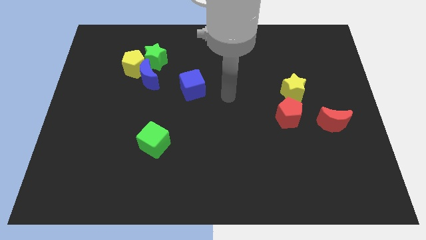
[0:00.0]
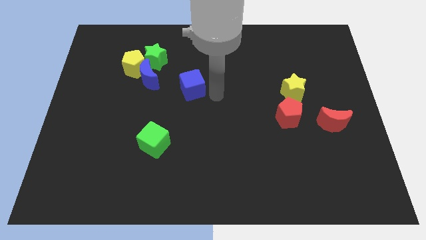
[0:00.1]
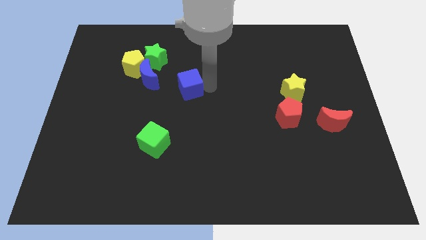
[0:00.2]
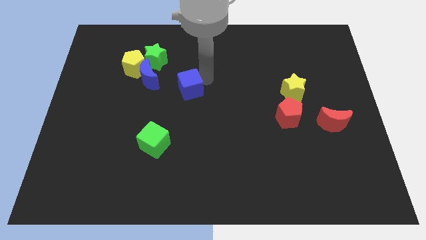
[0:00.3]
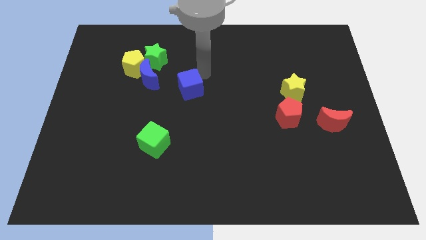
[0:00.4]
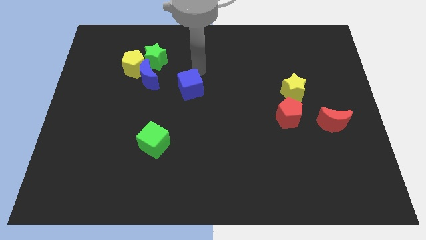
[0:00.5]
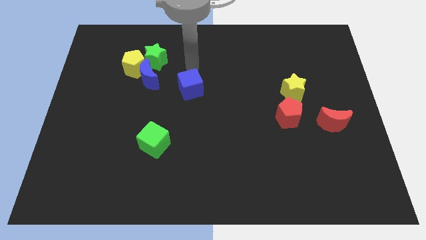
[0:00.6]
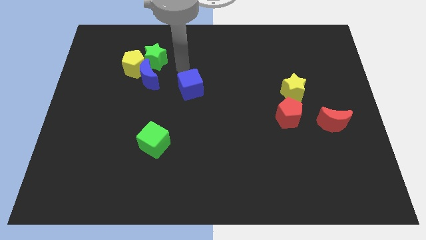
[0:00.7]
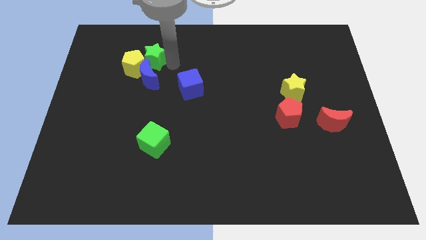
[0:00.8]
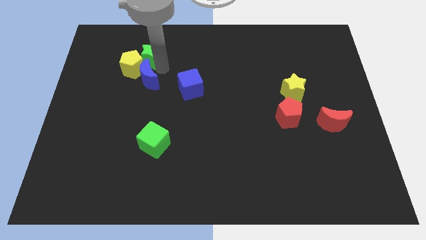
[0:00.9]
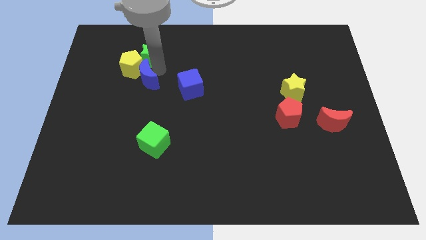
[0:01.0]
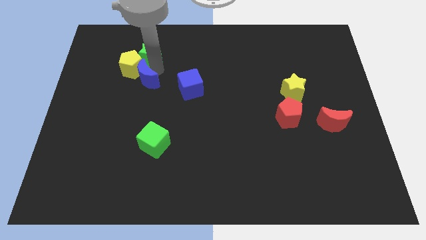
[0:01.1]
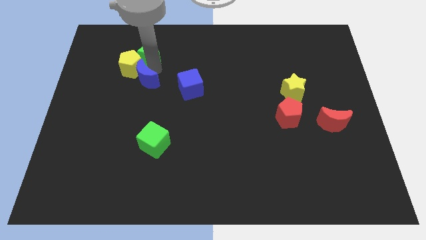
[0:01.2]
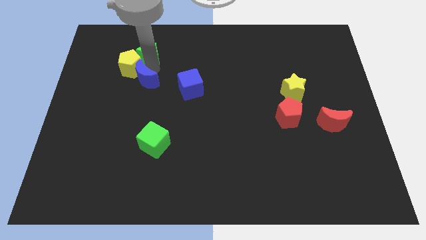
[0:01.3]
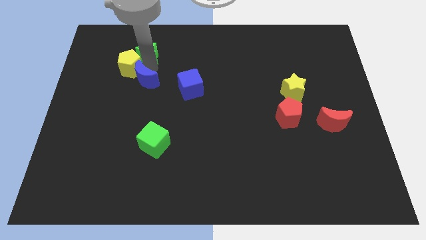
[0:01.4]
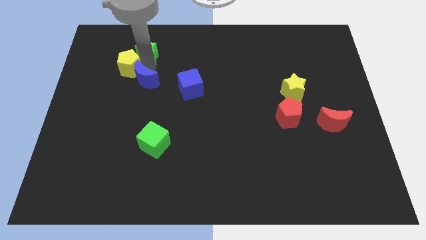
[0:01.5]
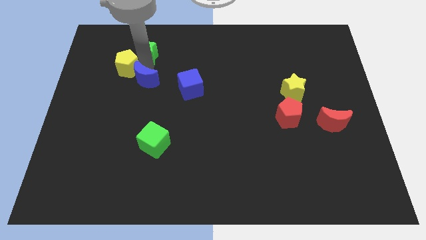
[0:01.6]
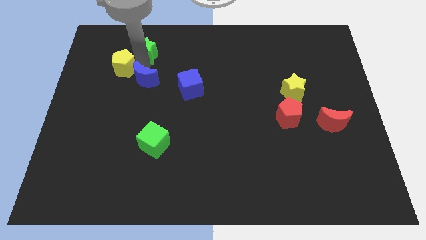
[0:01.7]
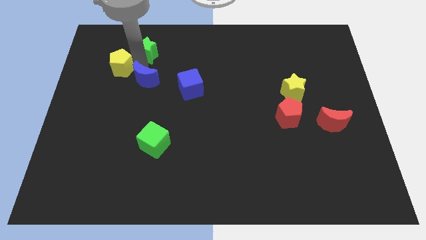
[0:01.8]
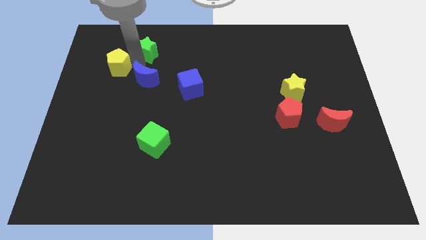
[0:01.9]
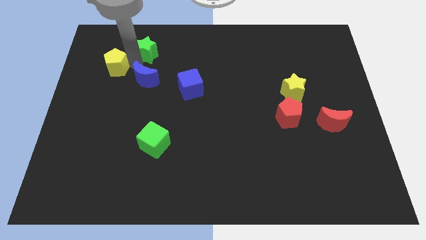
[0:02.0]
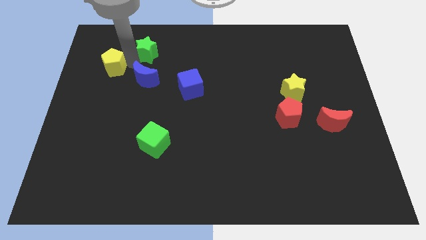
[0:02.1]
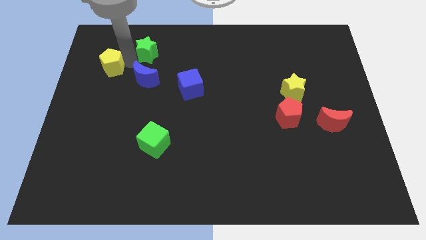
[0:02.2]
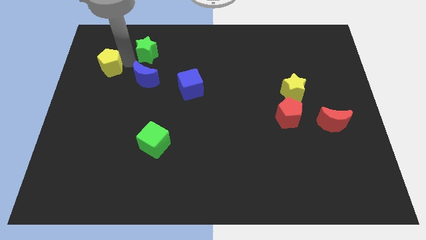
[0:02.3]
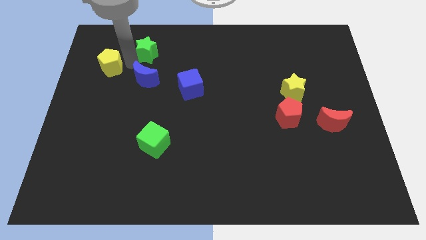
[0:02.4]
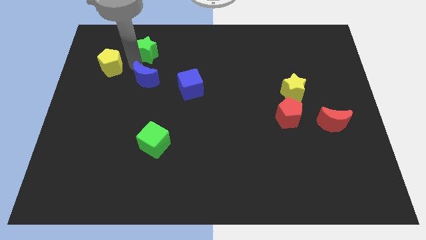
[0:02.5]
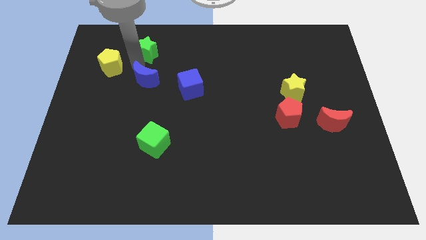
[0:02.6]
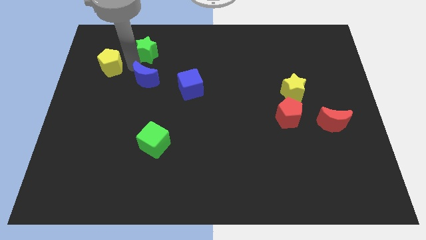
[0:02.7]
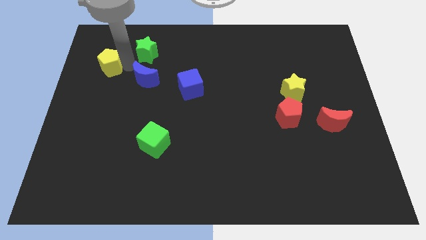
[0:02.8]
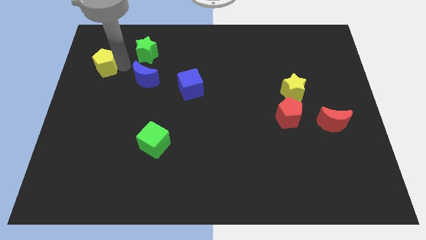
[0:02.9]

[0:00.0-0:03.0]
move the yellow pentagon away from the blue moon and green star

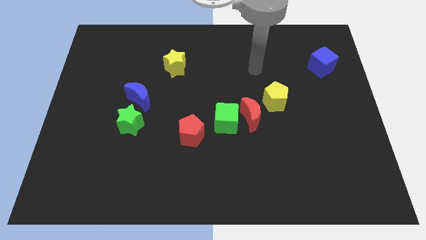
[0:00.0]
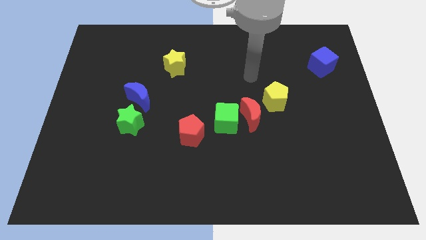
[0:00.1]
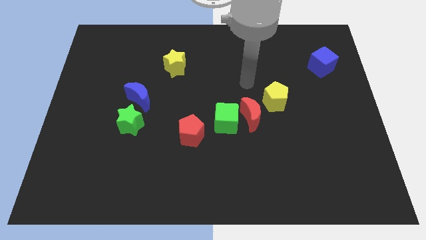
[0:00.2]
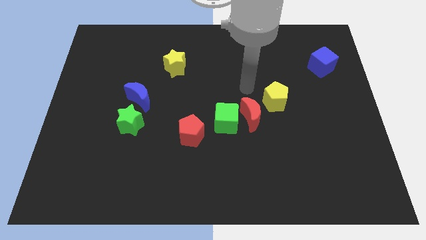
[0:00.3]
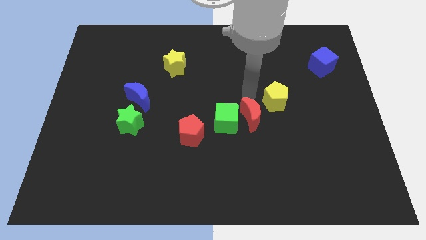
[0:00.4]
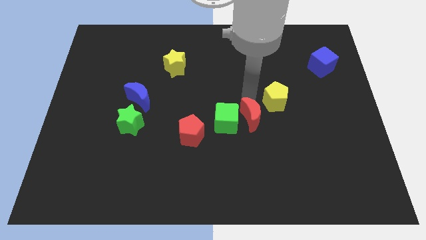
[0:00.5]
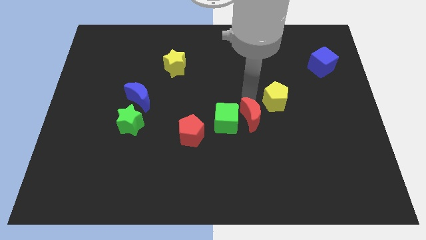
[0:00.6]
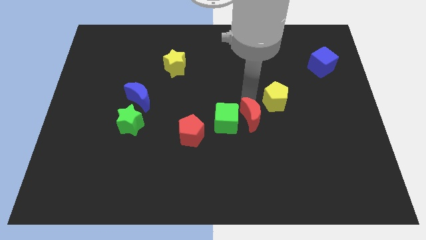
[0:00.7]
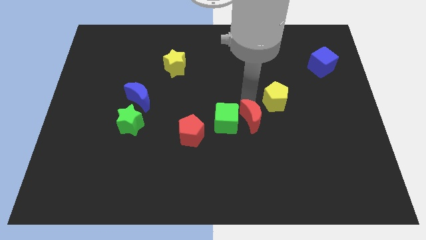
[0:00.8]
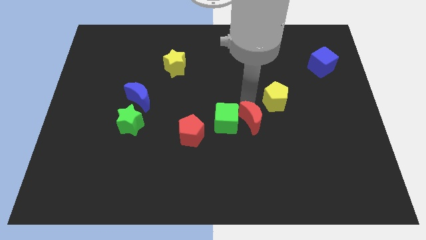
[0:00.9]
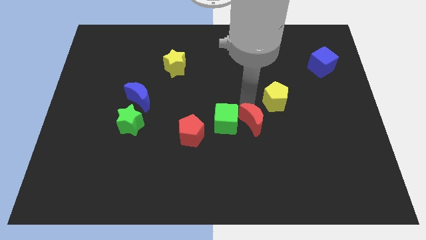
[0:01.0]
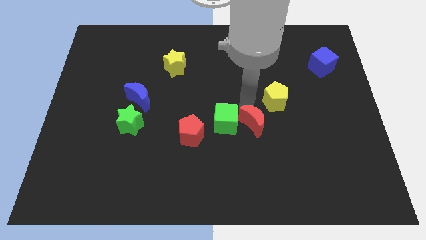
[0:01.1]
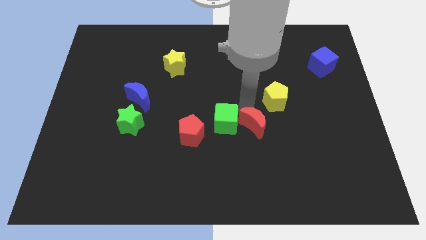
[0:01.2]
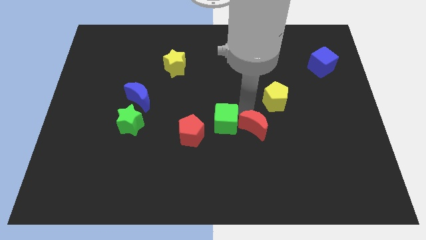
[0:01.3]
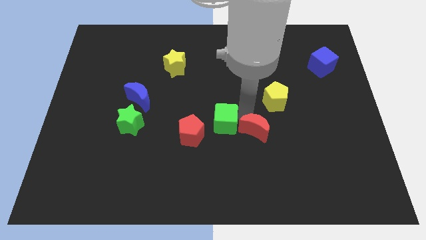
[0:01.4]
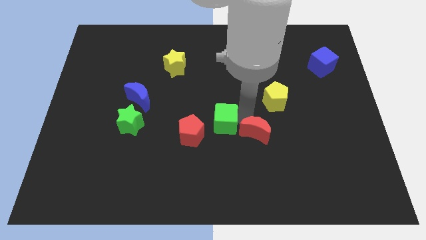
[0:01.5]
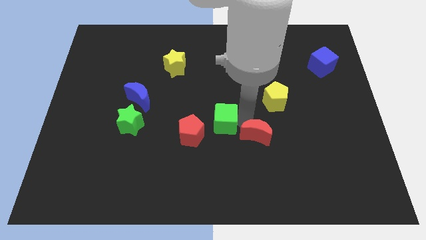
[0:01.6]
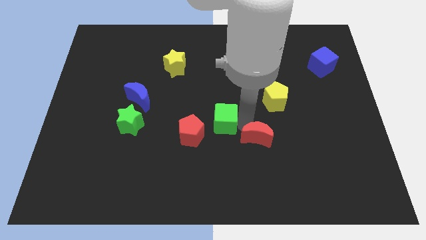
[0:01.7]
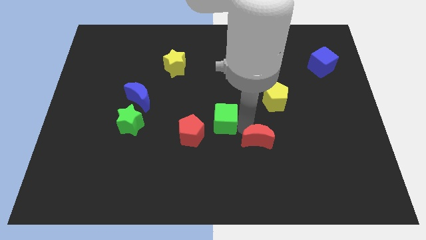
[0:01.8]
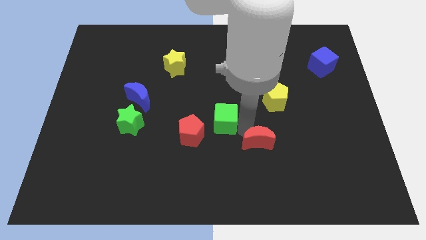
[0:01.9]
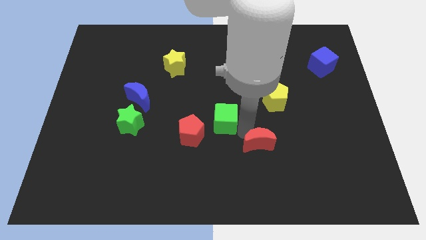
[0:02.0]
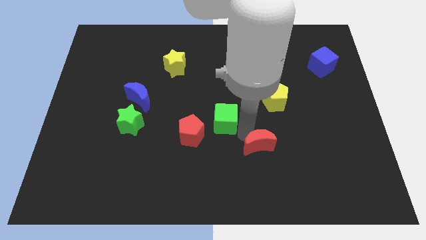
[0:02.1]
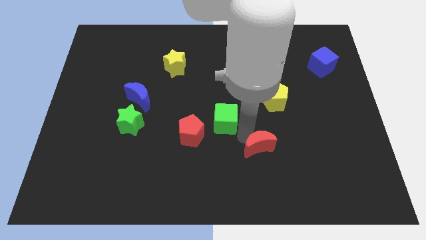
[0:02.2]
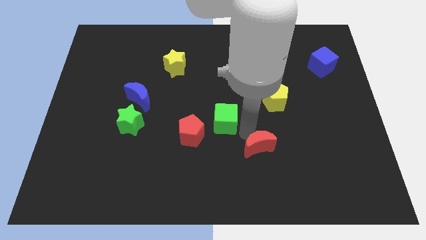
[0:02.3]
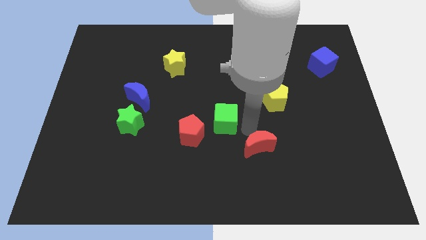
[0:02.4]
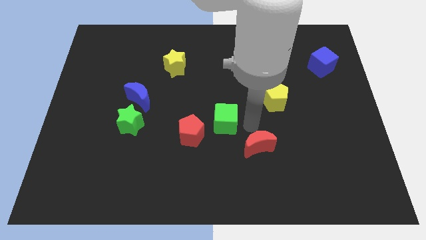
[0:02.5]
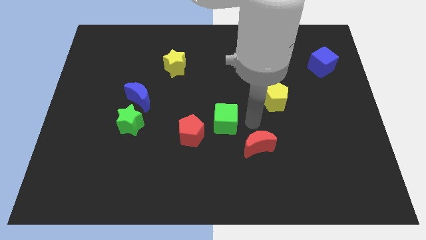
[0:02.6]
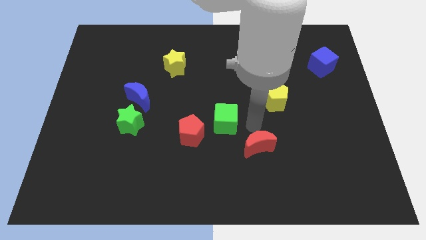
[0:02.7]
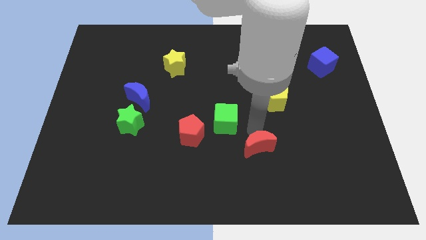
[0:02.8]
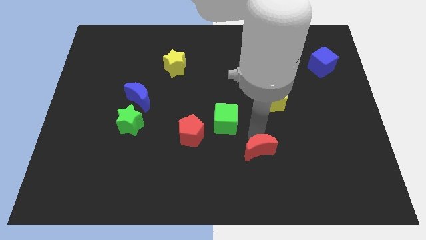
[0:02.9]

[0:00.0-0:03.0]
move the red moon away from the green cube and yellow pentagon

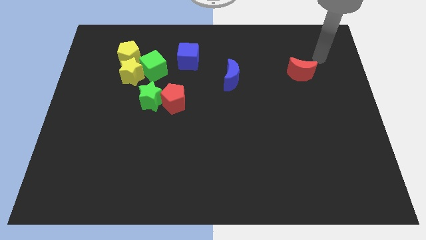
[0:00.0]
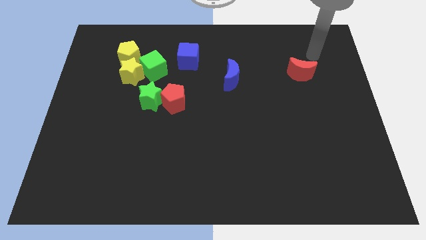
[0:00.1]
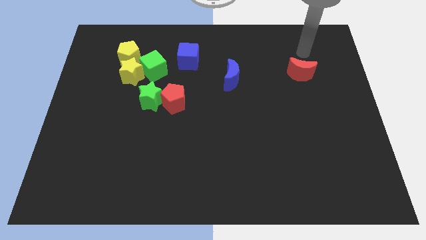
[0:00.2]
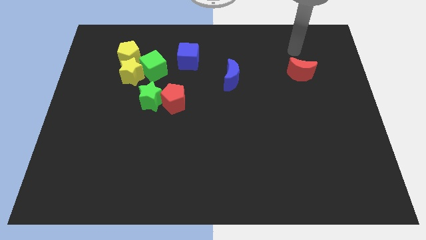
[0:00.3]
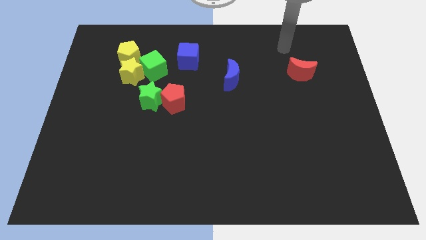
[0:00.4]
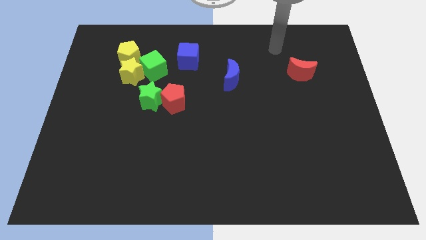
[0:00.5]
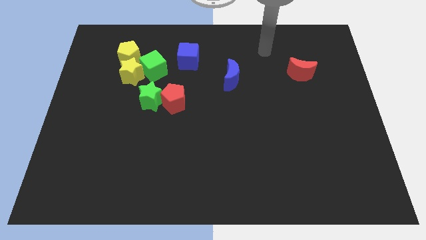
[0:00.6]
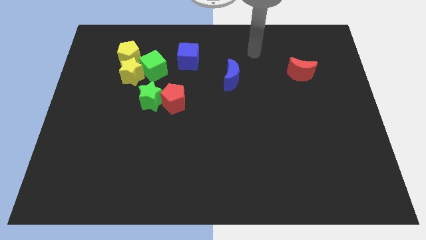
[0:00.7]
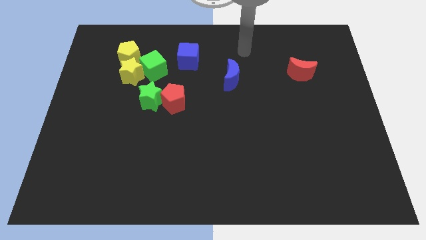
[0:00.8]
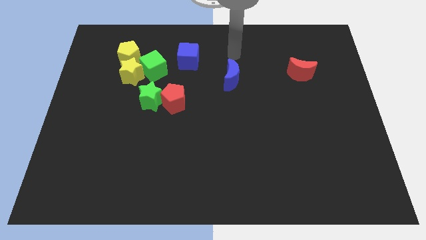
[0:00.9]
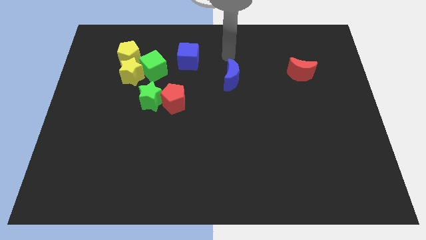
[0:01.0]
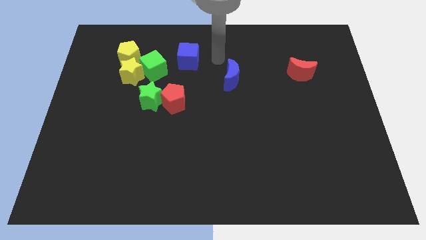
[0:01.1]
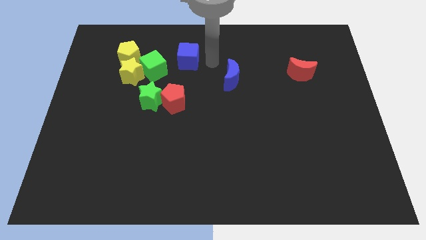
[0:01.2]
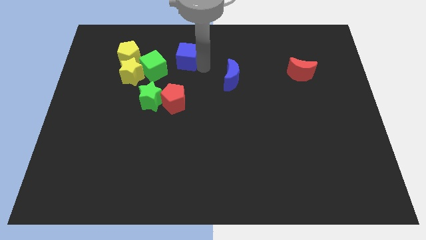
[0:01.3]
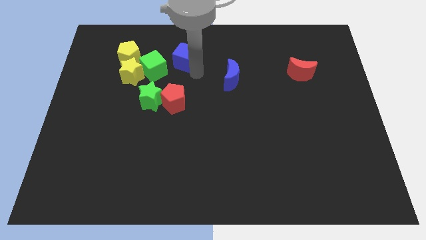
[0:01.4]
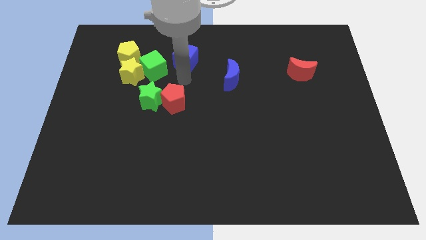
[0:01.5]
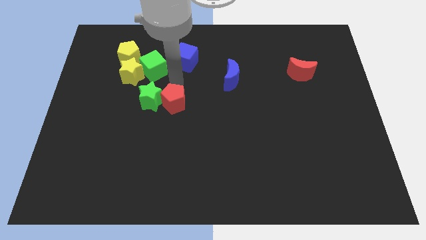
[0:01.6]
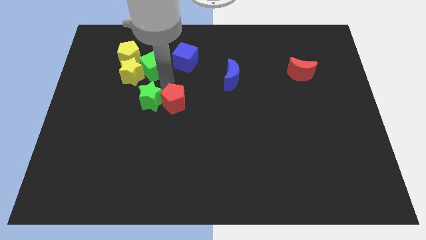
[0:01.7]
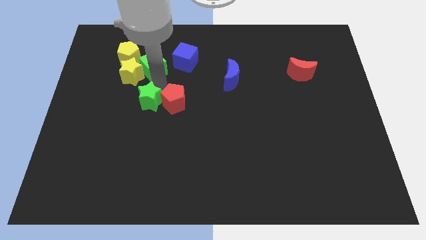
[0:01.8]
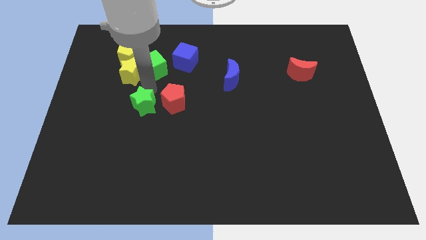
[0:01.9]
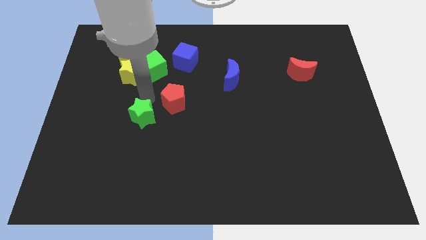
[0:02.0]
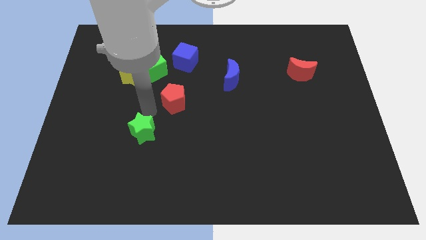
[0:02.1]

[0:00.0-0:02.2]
move the red pentagon away from the green star

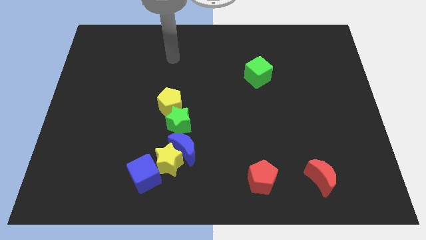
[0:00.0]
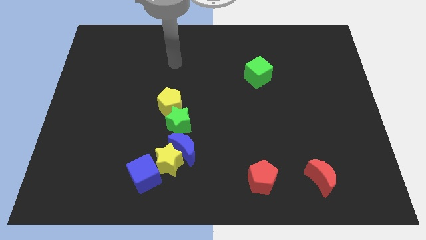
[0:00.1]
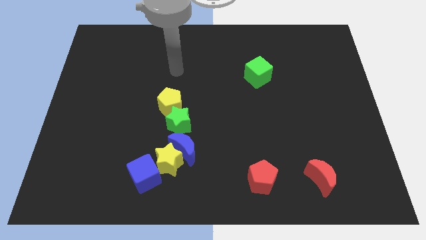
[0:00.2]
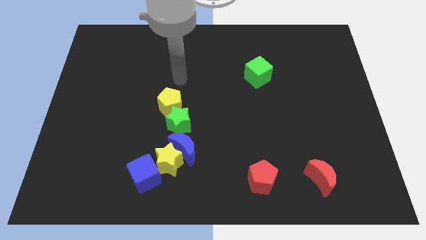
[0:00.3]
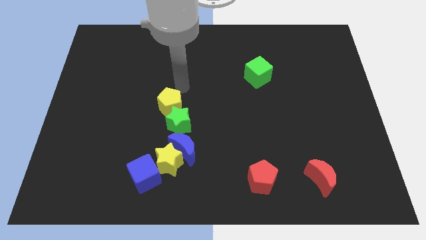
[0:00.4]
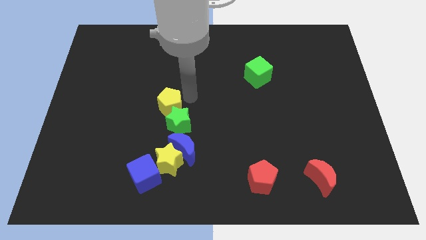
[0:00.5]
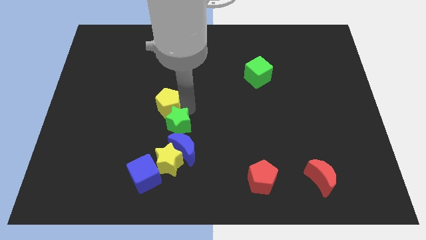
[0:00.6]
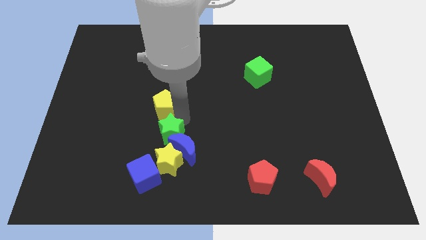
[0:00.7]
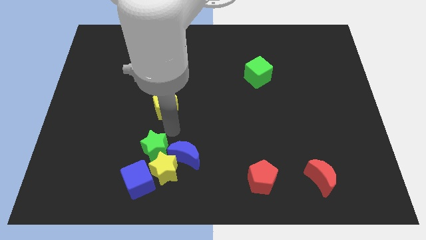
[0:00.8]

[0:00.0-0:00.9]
move the yellow pentagon away from the green star
